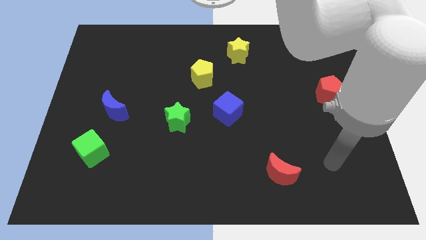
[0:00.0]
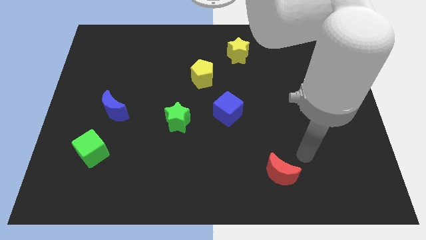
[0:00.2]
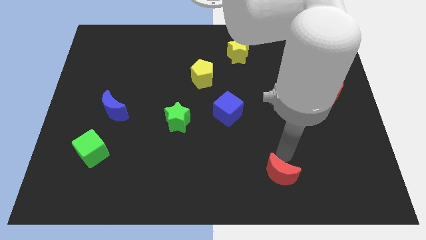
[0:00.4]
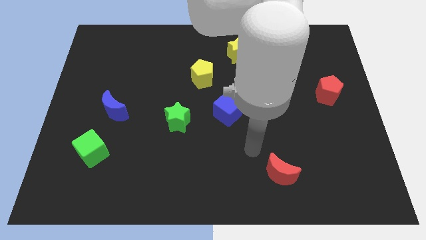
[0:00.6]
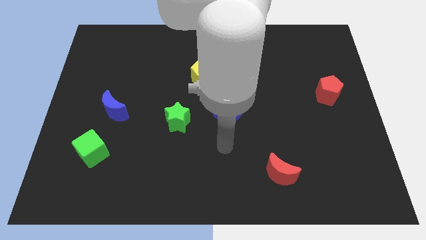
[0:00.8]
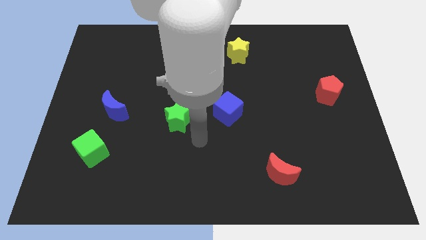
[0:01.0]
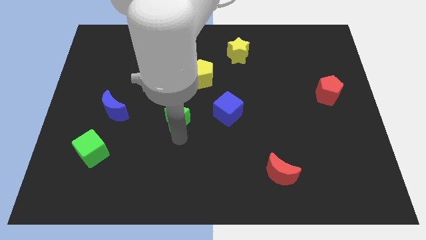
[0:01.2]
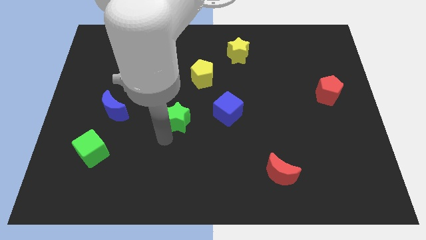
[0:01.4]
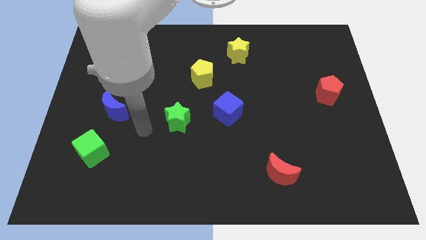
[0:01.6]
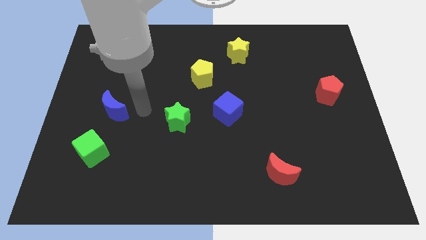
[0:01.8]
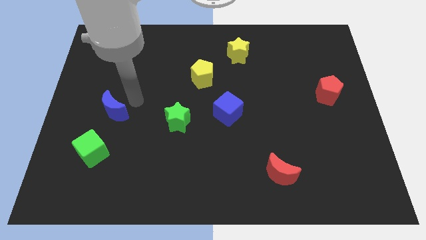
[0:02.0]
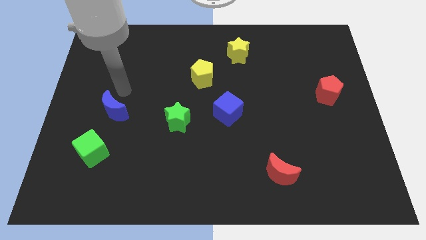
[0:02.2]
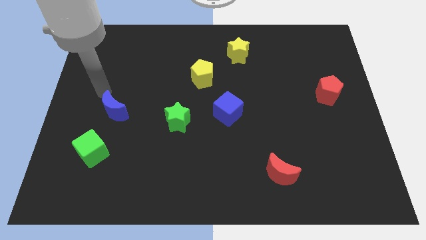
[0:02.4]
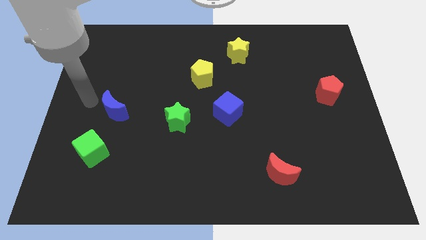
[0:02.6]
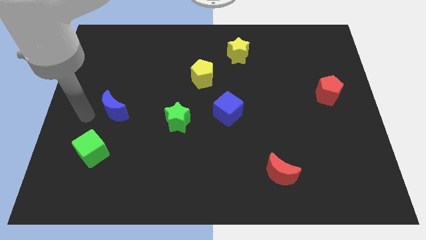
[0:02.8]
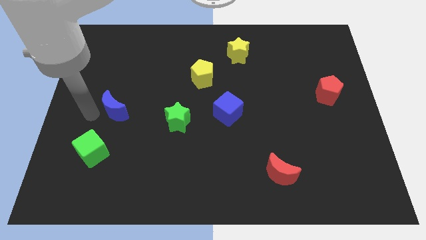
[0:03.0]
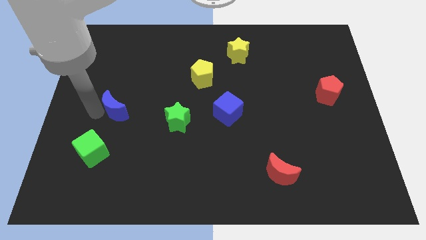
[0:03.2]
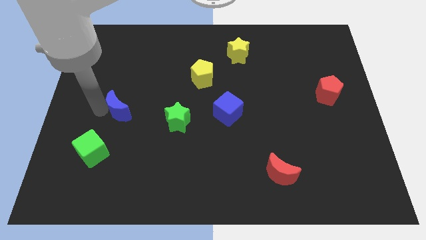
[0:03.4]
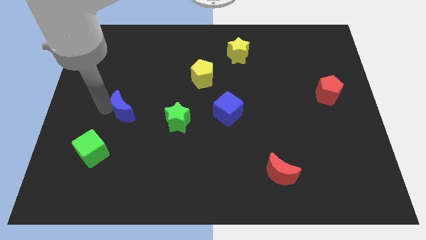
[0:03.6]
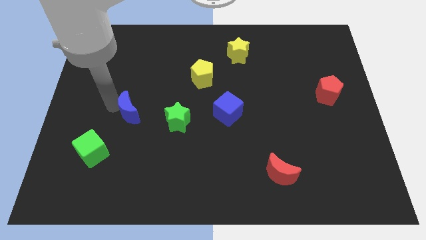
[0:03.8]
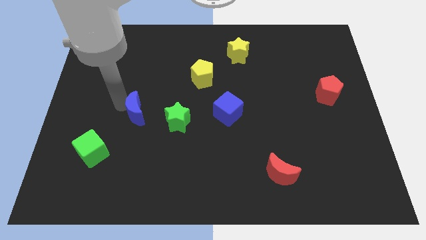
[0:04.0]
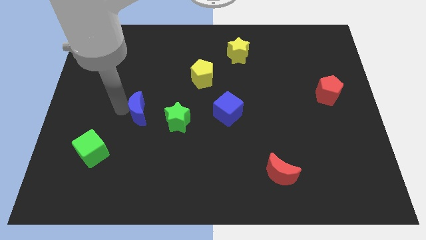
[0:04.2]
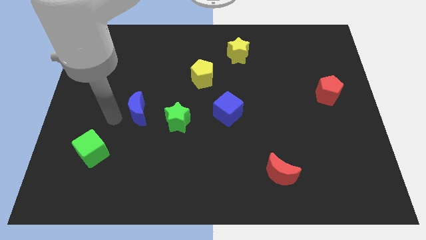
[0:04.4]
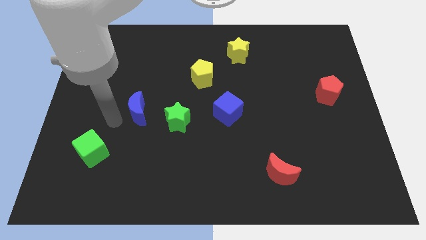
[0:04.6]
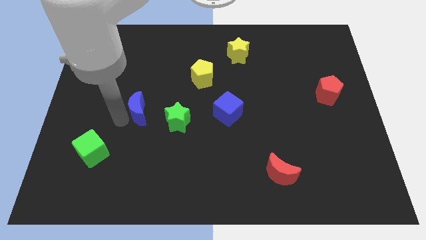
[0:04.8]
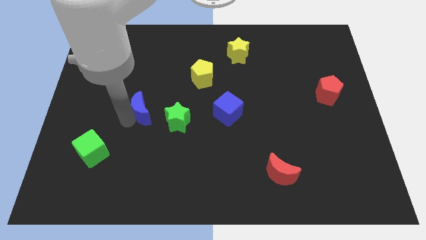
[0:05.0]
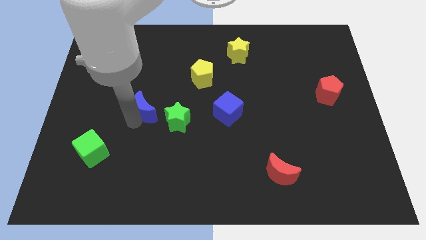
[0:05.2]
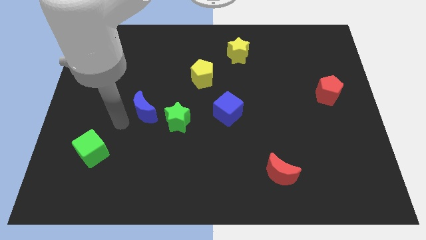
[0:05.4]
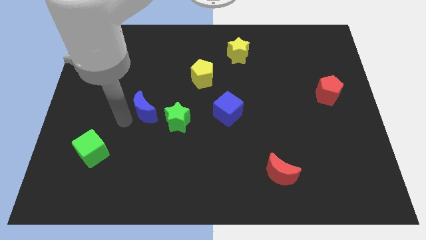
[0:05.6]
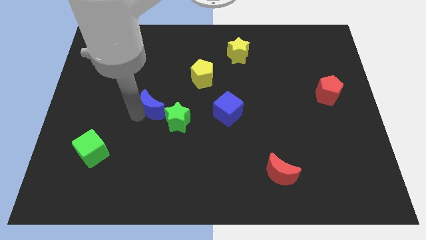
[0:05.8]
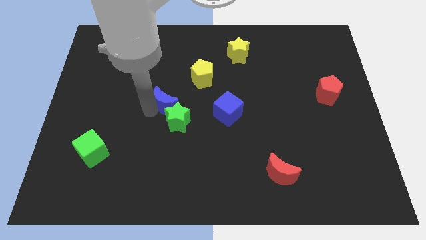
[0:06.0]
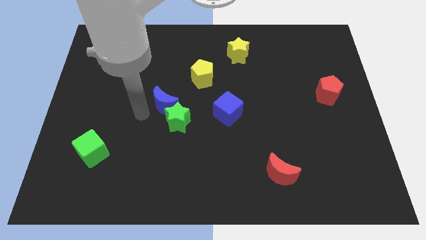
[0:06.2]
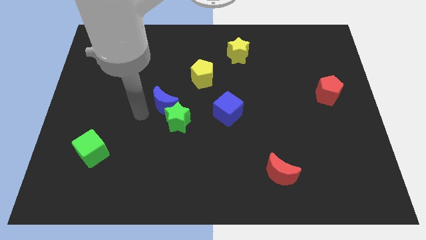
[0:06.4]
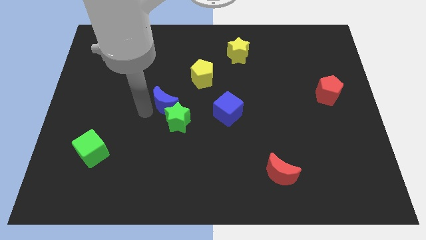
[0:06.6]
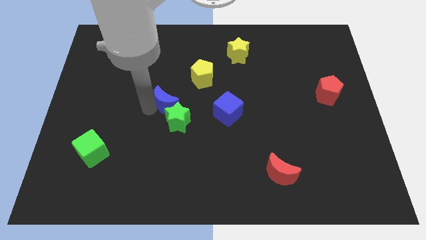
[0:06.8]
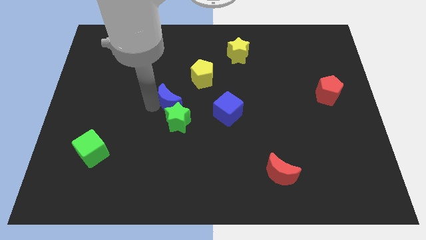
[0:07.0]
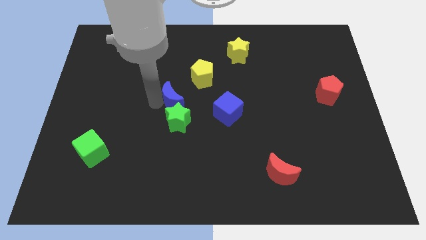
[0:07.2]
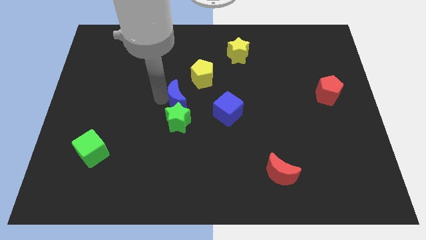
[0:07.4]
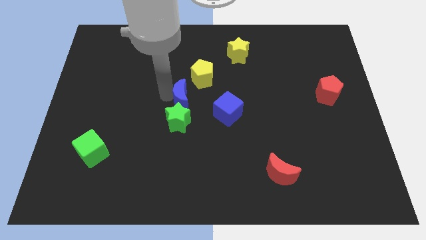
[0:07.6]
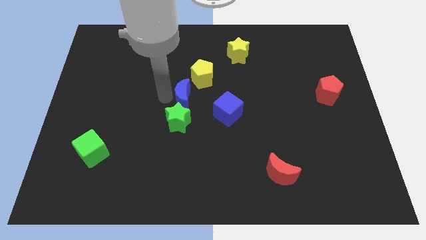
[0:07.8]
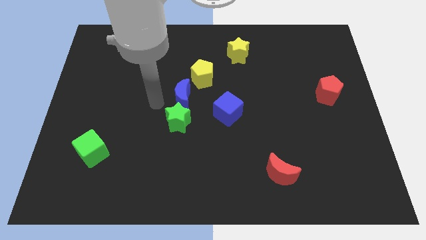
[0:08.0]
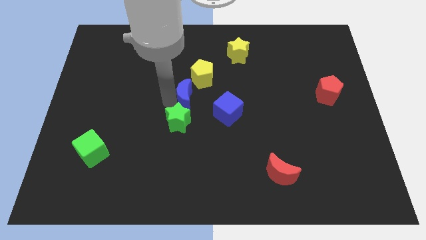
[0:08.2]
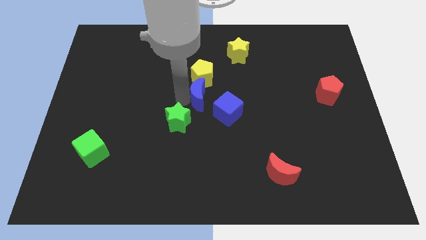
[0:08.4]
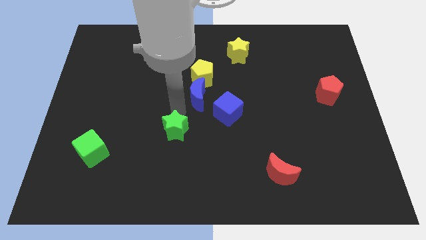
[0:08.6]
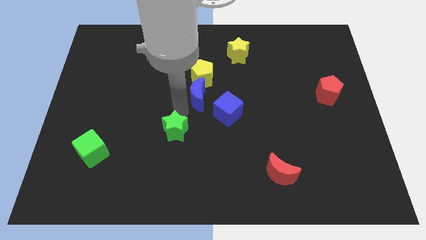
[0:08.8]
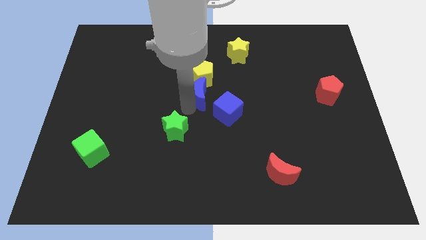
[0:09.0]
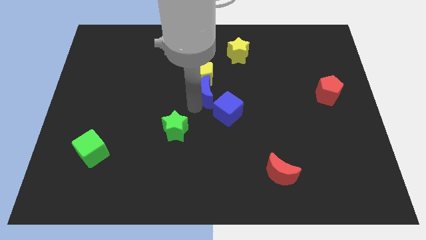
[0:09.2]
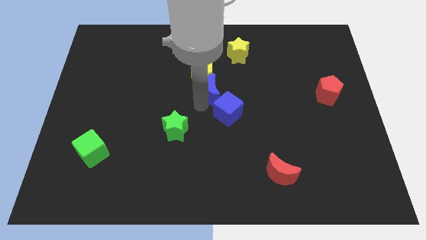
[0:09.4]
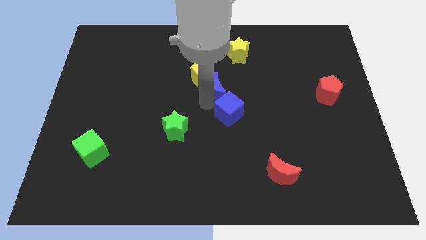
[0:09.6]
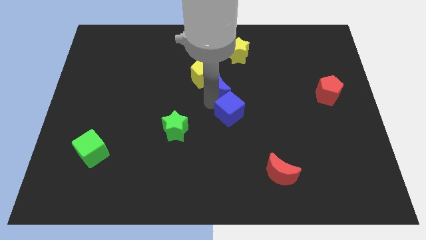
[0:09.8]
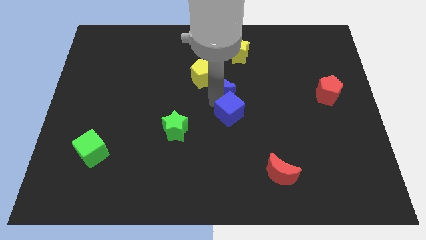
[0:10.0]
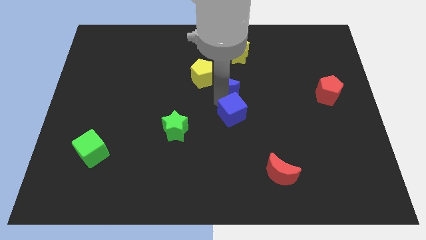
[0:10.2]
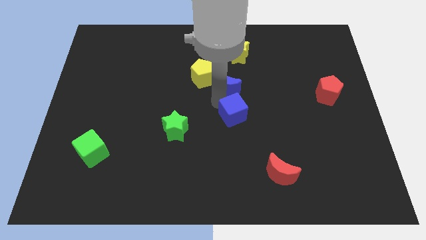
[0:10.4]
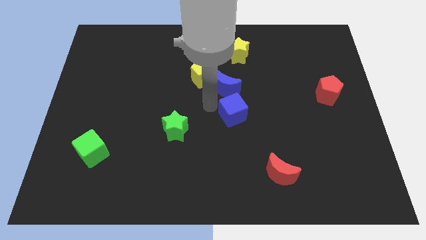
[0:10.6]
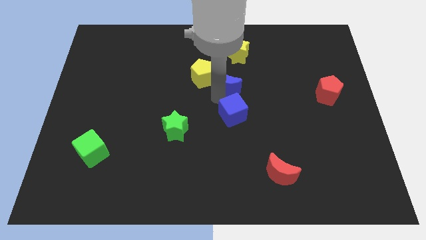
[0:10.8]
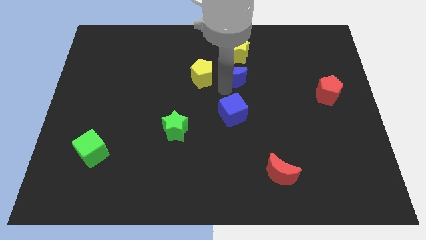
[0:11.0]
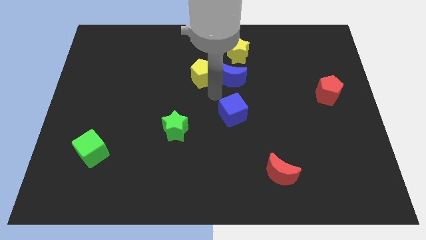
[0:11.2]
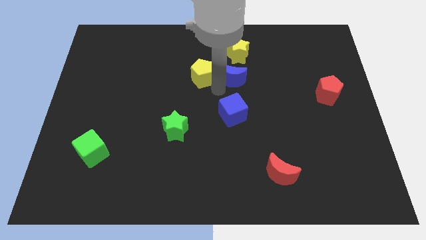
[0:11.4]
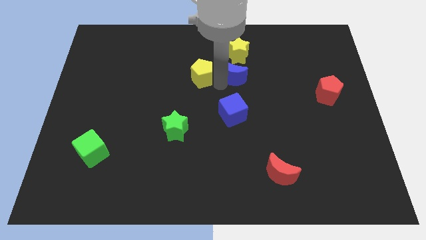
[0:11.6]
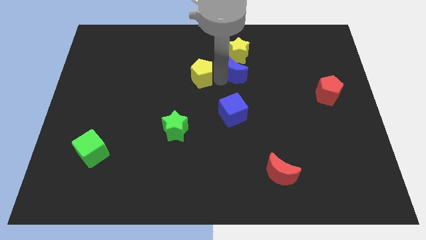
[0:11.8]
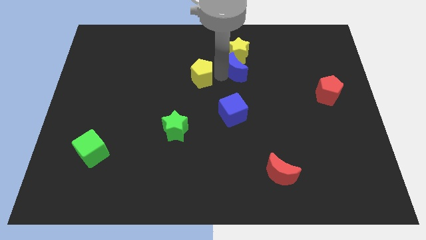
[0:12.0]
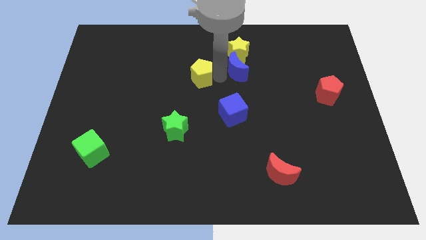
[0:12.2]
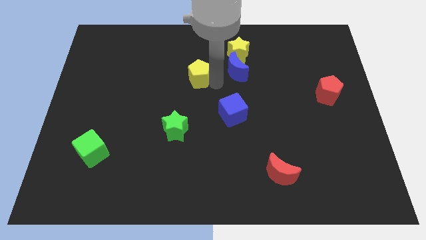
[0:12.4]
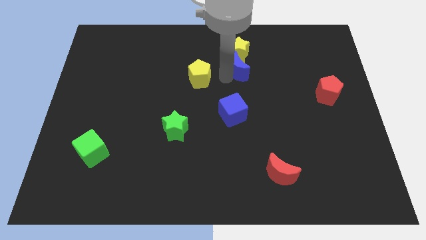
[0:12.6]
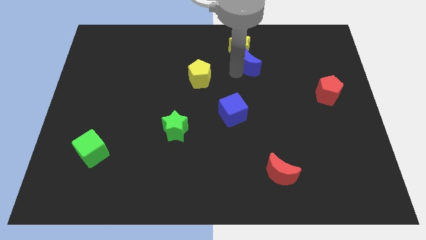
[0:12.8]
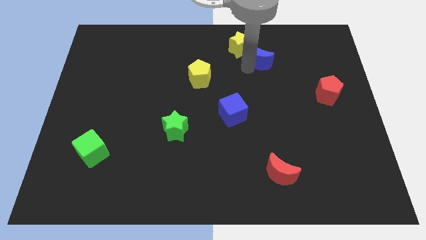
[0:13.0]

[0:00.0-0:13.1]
put the blue moon to the right side of the yellow star
